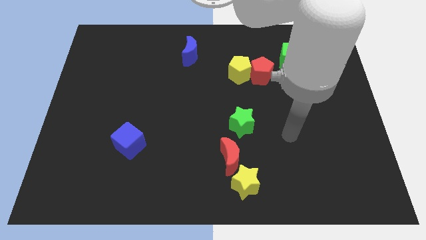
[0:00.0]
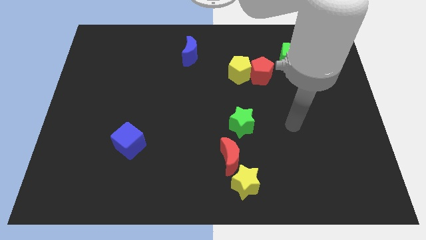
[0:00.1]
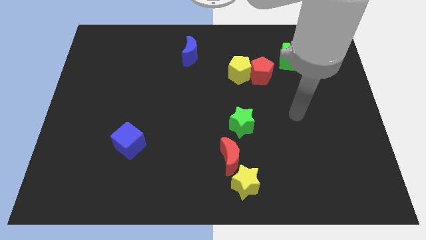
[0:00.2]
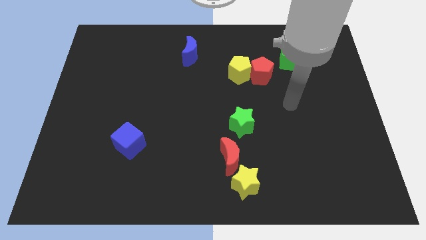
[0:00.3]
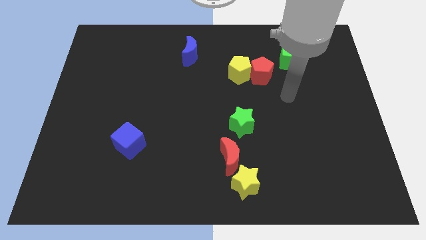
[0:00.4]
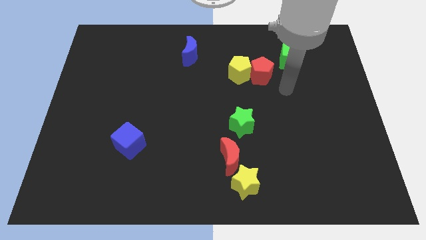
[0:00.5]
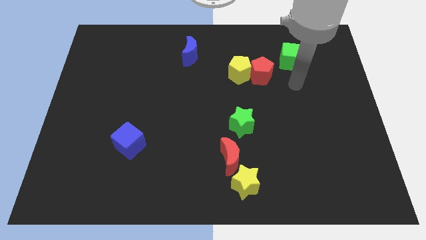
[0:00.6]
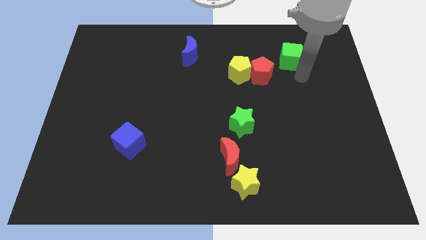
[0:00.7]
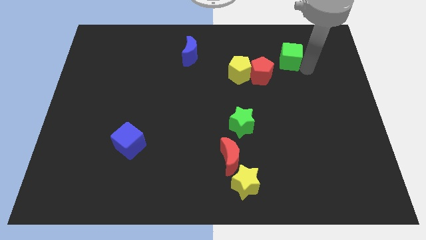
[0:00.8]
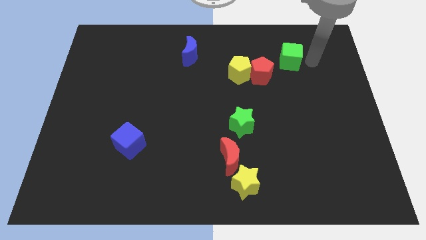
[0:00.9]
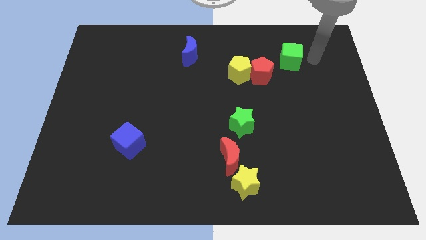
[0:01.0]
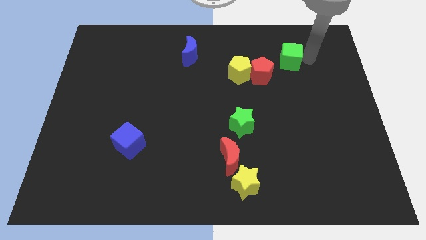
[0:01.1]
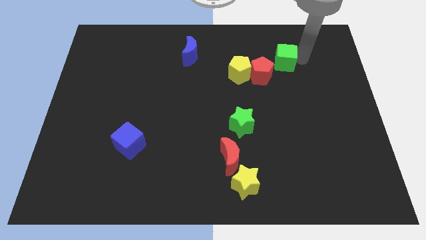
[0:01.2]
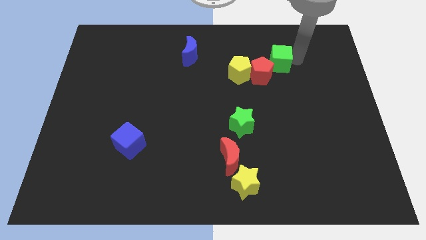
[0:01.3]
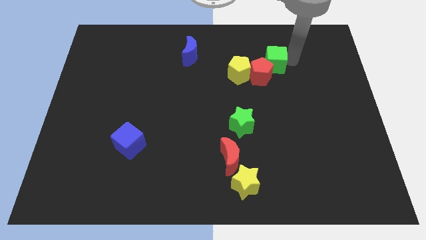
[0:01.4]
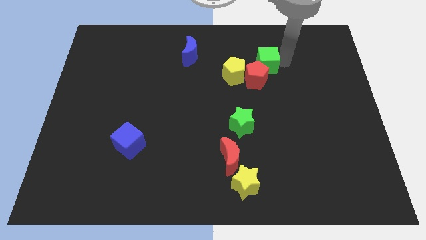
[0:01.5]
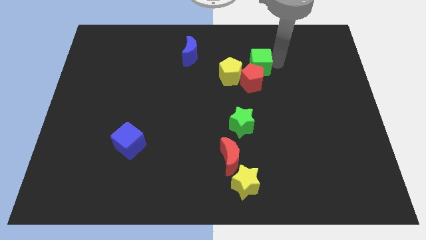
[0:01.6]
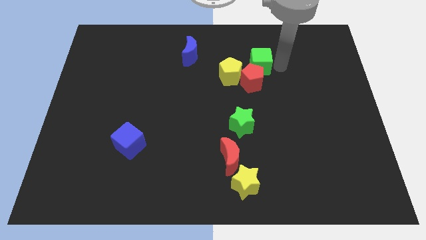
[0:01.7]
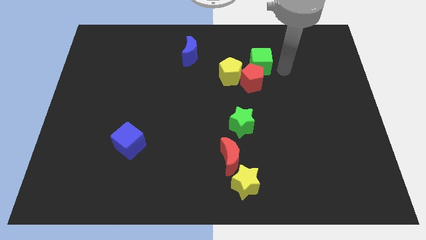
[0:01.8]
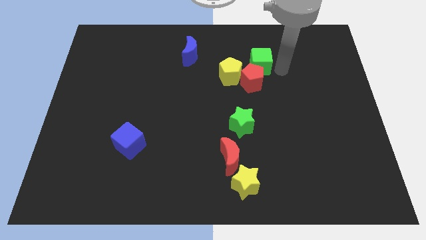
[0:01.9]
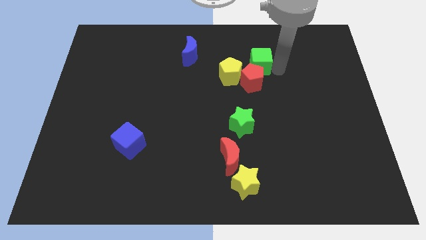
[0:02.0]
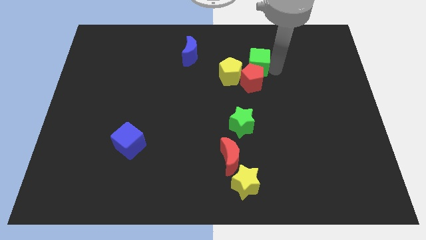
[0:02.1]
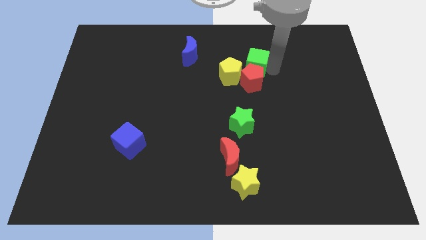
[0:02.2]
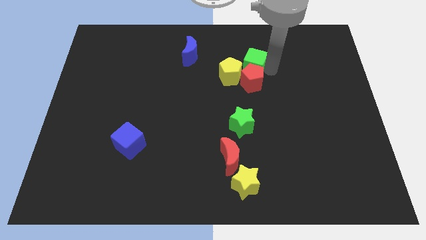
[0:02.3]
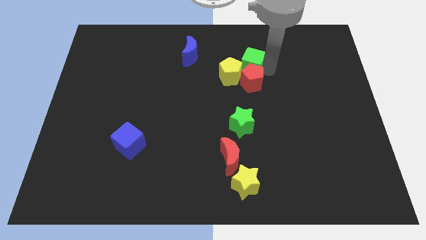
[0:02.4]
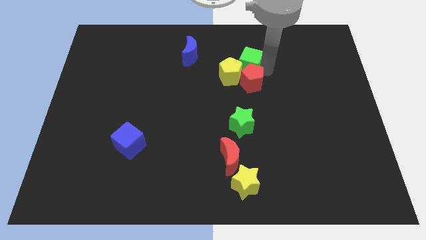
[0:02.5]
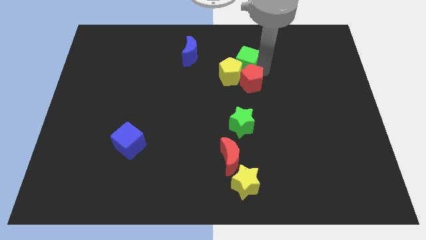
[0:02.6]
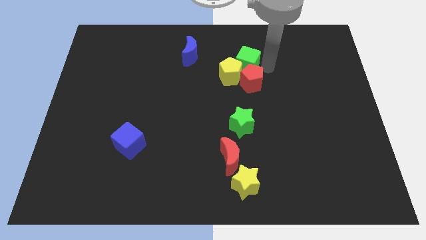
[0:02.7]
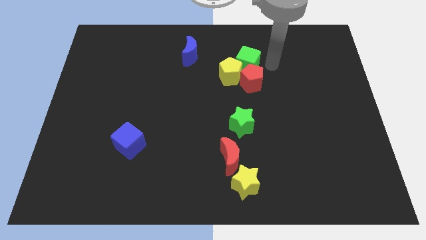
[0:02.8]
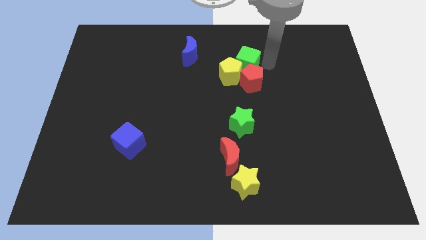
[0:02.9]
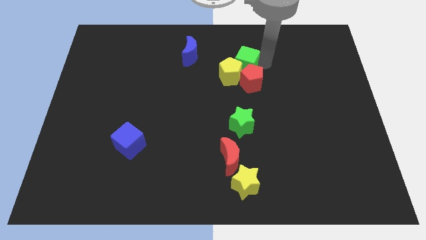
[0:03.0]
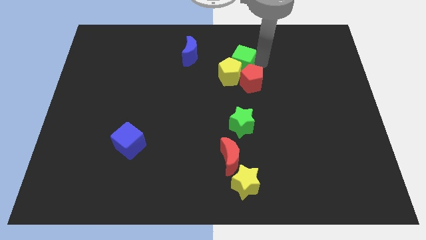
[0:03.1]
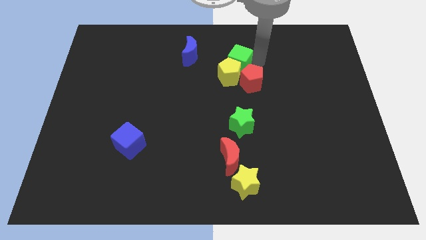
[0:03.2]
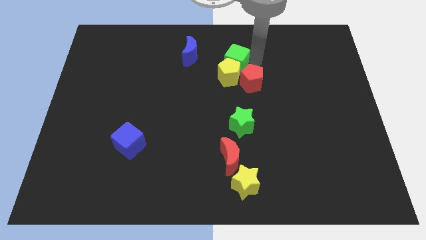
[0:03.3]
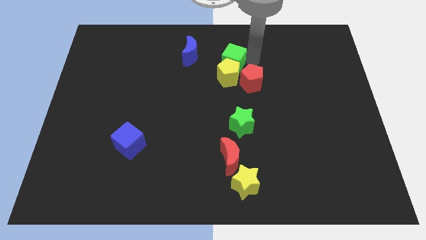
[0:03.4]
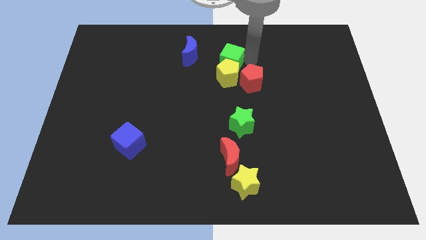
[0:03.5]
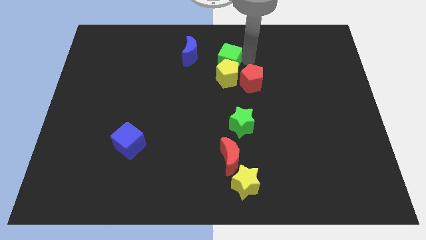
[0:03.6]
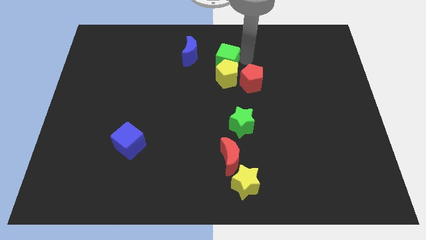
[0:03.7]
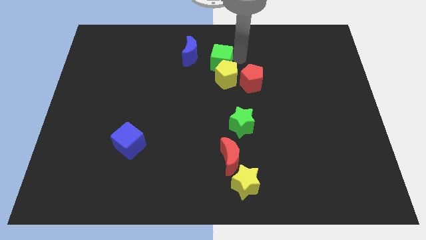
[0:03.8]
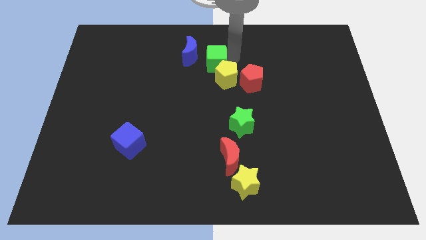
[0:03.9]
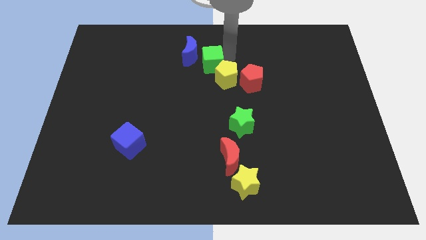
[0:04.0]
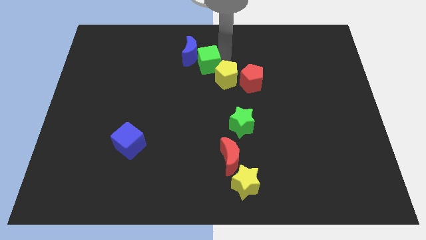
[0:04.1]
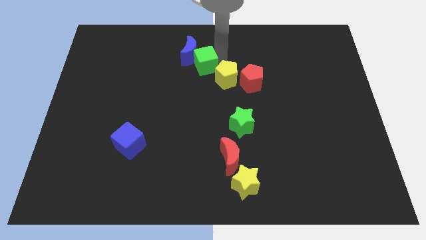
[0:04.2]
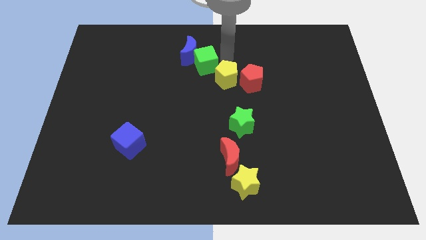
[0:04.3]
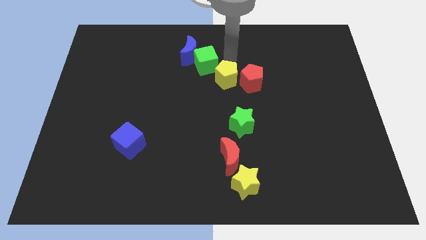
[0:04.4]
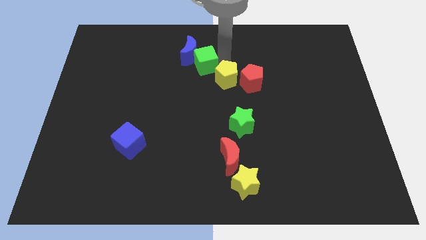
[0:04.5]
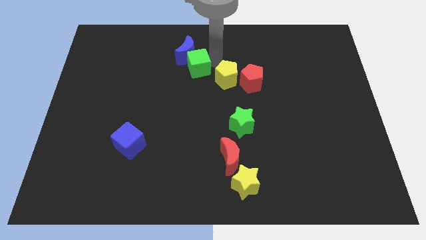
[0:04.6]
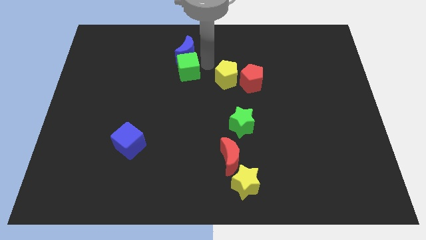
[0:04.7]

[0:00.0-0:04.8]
slide the green cube diagonally down and to the left of the blue moon

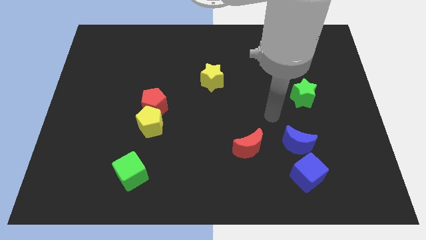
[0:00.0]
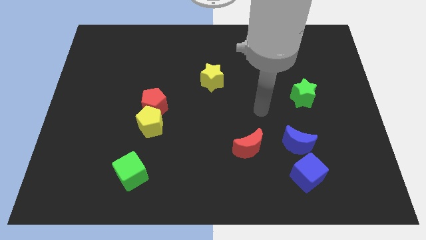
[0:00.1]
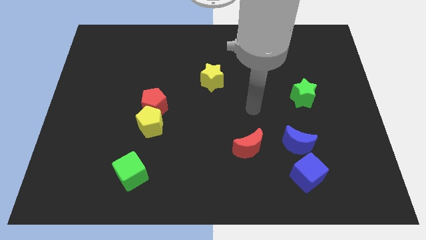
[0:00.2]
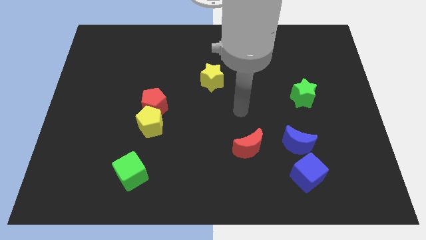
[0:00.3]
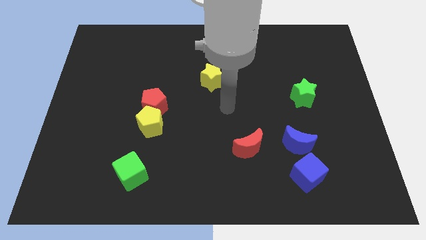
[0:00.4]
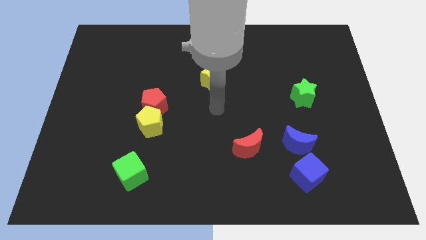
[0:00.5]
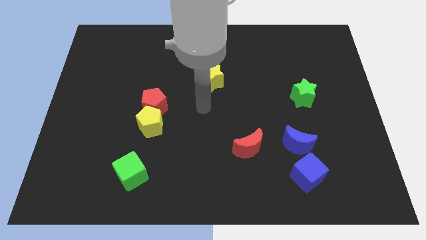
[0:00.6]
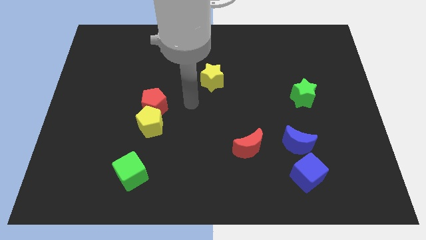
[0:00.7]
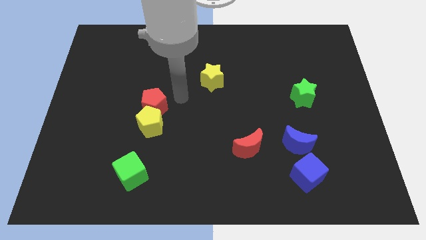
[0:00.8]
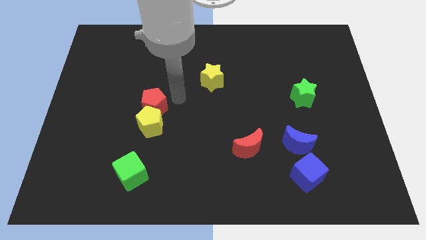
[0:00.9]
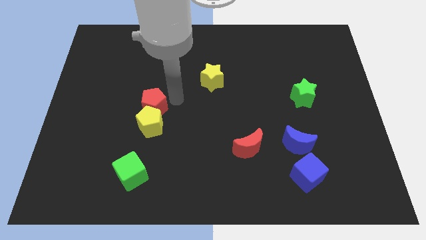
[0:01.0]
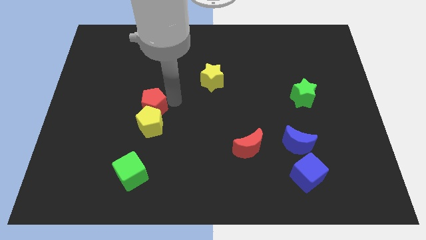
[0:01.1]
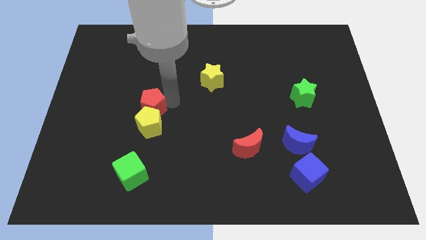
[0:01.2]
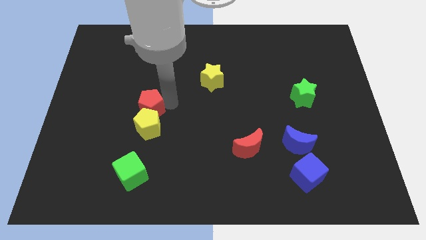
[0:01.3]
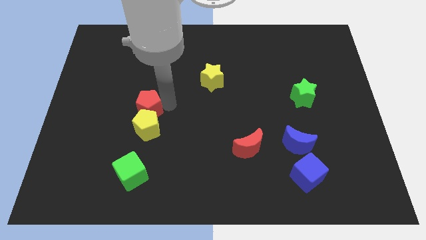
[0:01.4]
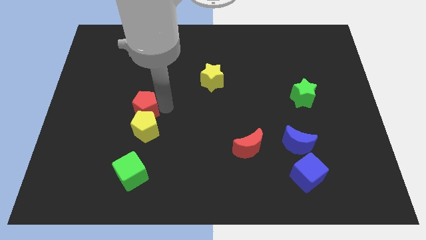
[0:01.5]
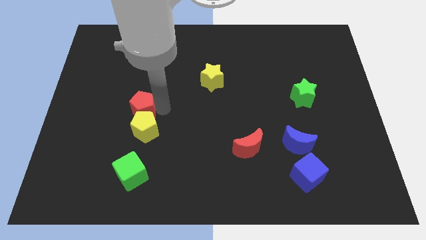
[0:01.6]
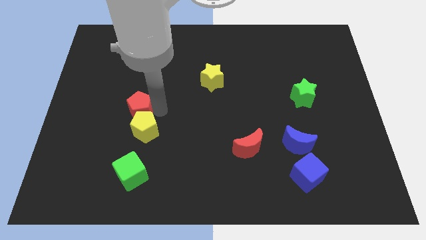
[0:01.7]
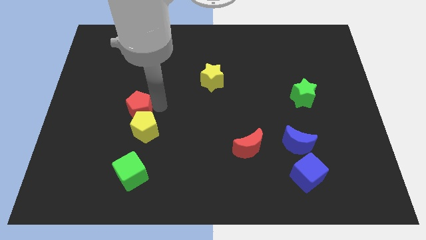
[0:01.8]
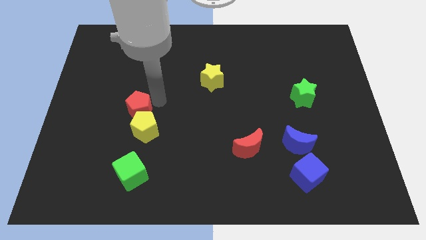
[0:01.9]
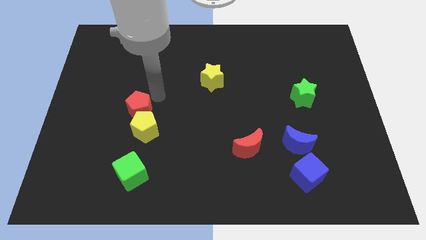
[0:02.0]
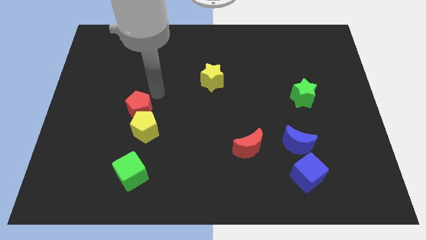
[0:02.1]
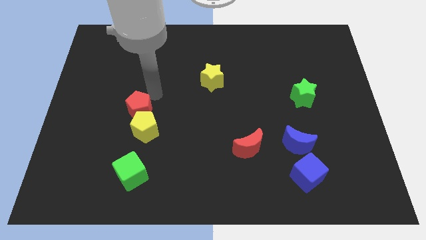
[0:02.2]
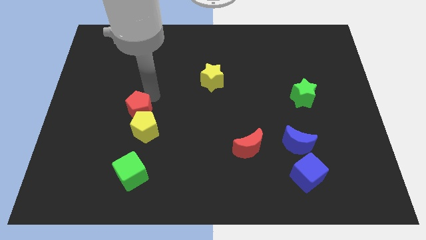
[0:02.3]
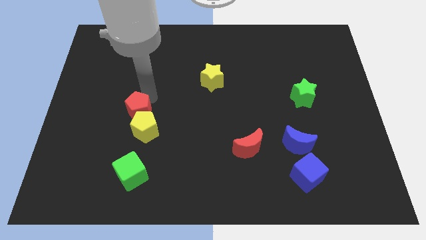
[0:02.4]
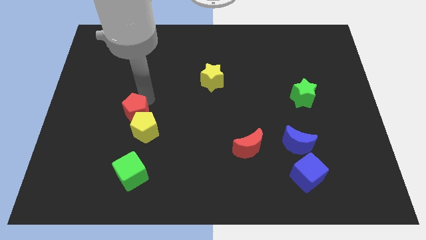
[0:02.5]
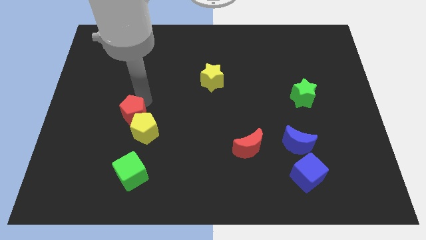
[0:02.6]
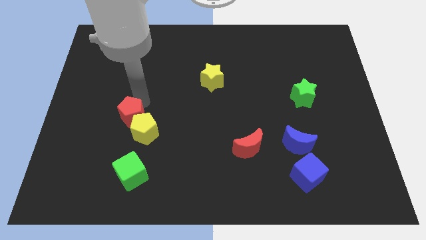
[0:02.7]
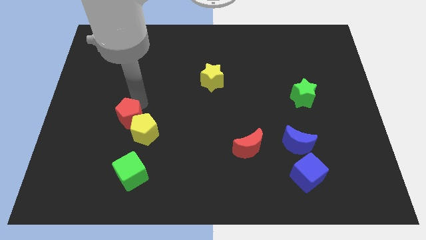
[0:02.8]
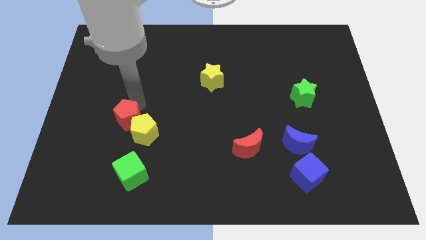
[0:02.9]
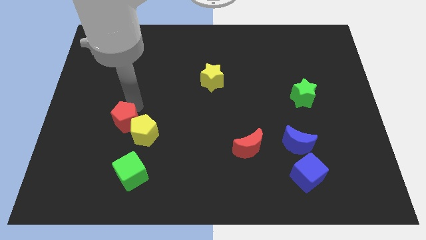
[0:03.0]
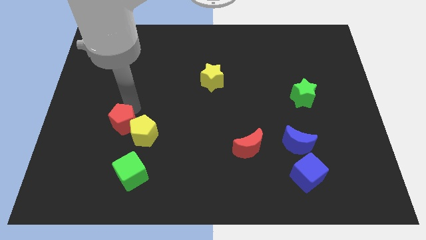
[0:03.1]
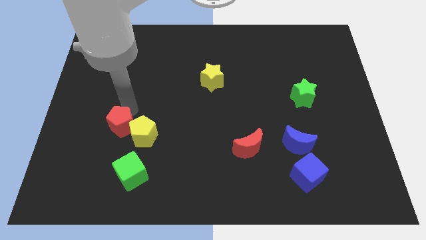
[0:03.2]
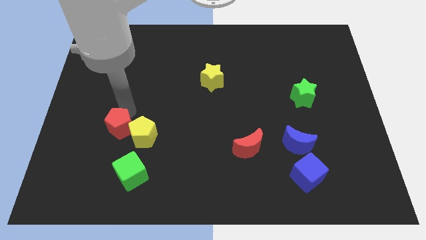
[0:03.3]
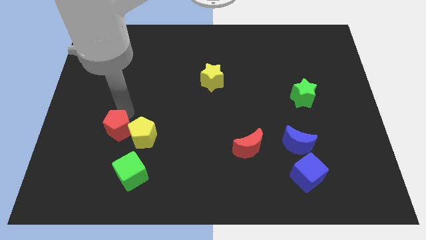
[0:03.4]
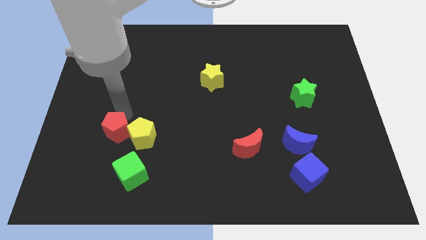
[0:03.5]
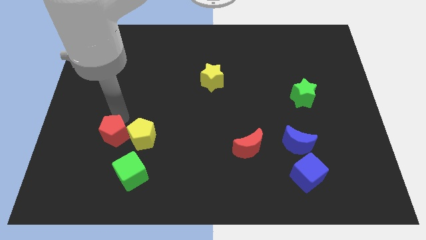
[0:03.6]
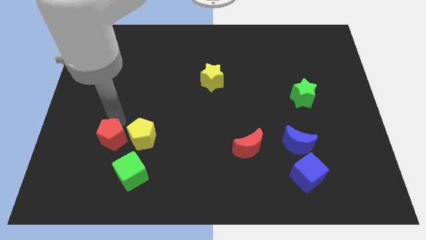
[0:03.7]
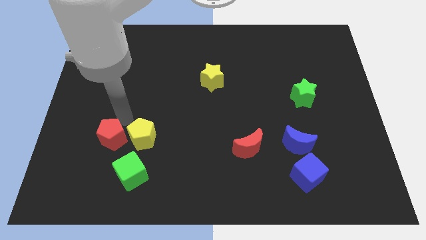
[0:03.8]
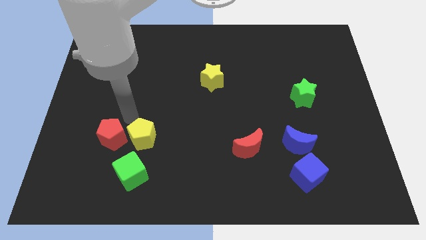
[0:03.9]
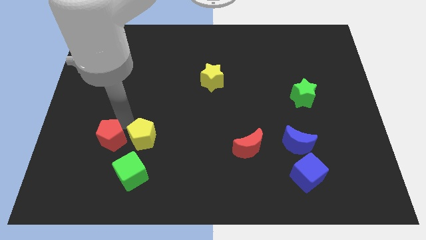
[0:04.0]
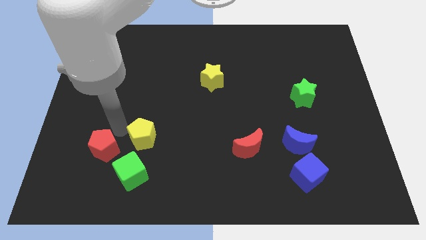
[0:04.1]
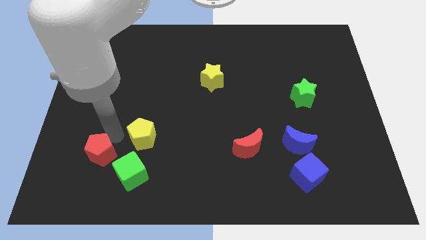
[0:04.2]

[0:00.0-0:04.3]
slide the red pentagon to the left of the green cube
